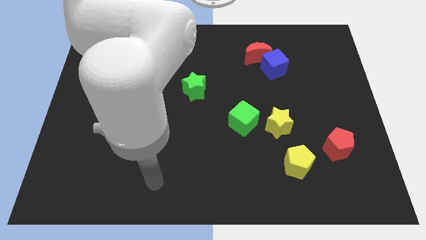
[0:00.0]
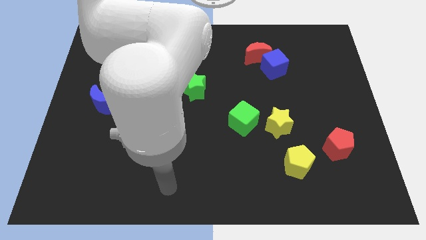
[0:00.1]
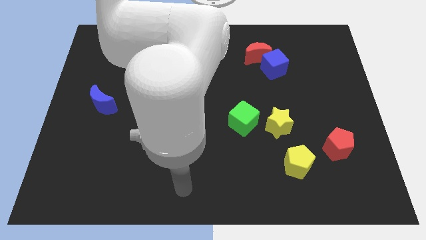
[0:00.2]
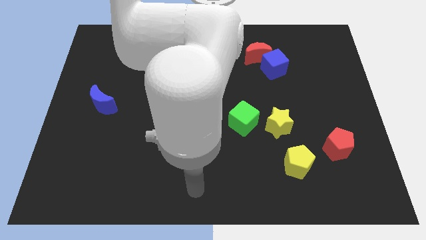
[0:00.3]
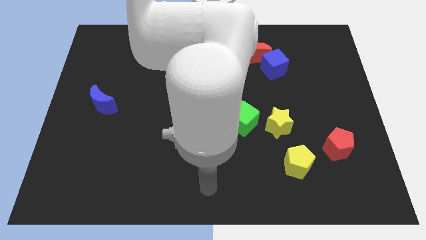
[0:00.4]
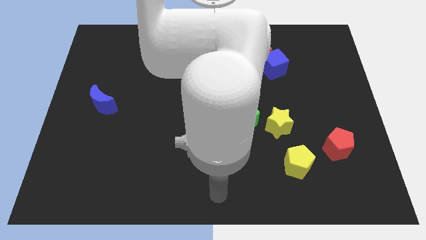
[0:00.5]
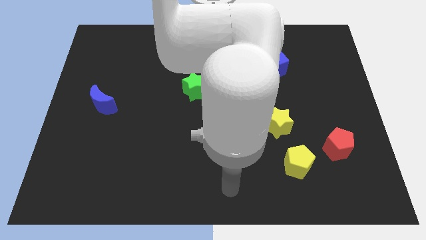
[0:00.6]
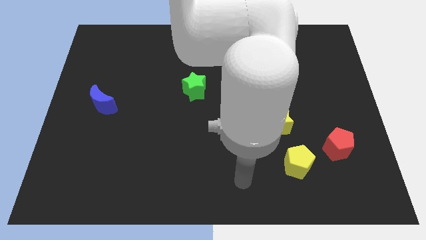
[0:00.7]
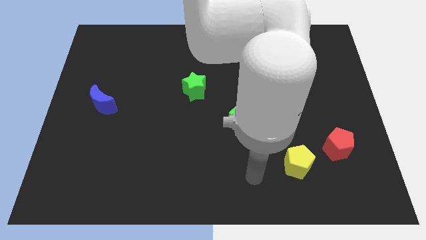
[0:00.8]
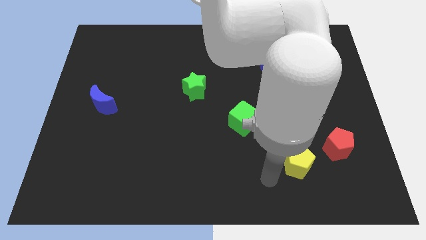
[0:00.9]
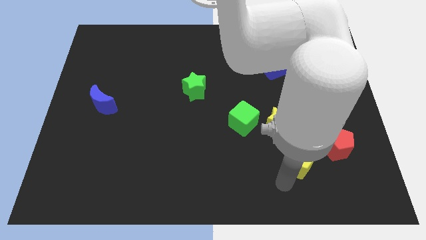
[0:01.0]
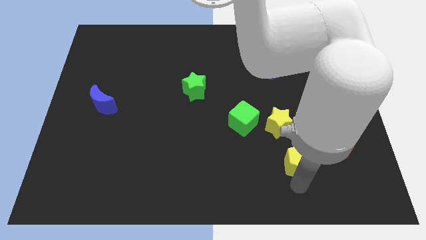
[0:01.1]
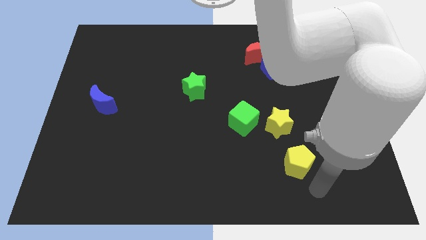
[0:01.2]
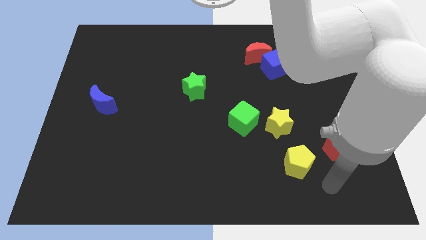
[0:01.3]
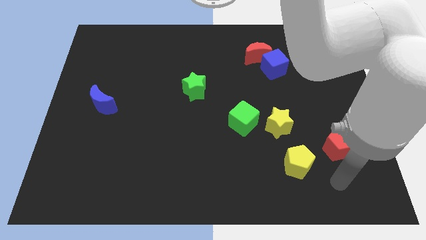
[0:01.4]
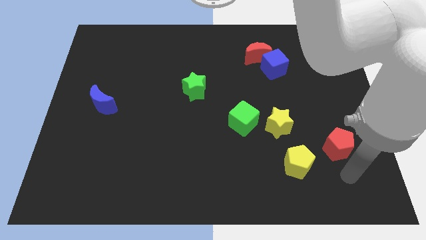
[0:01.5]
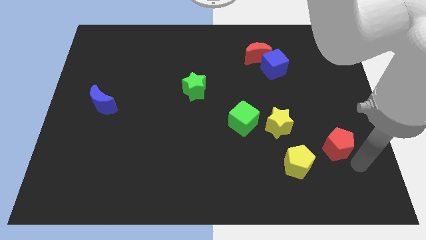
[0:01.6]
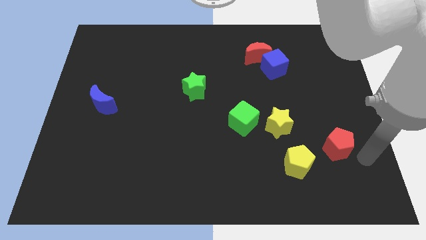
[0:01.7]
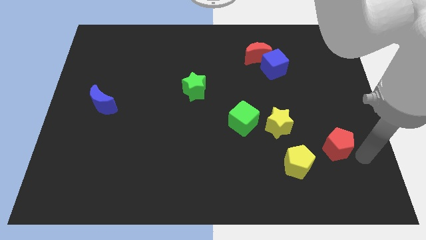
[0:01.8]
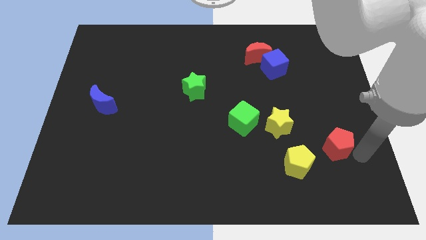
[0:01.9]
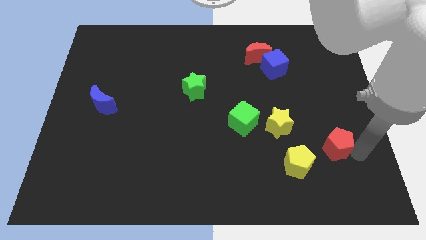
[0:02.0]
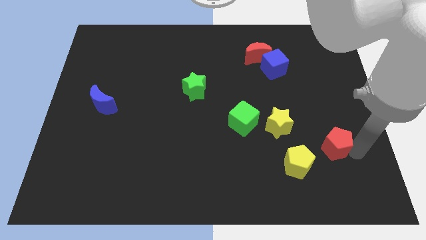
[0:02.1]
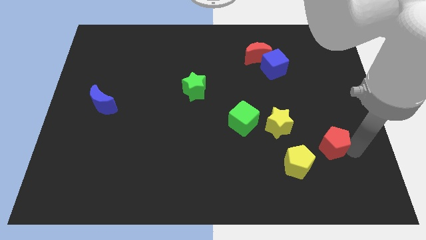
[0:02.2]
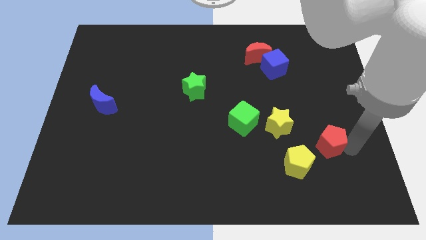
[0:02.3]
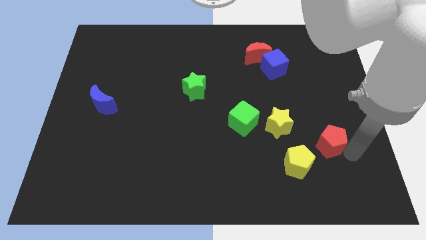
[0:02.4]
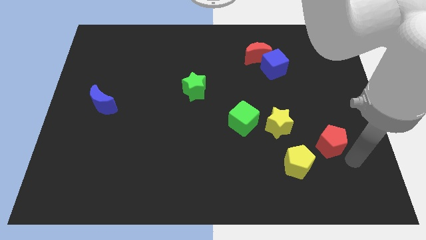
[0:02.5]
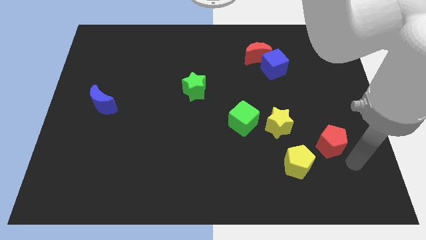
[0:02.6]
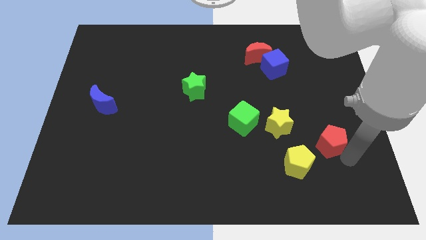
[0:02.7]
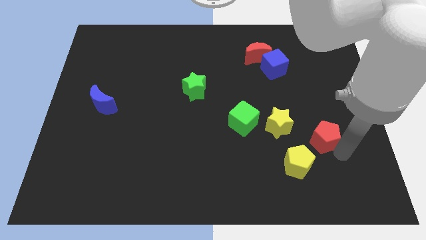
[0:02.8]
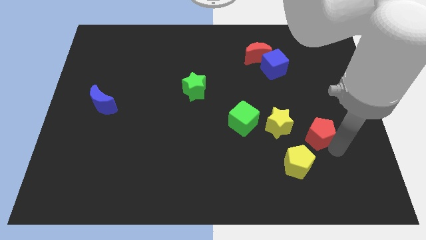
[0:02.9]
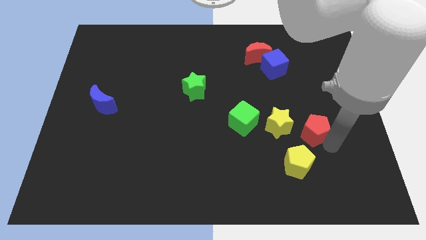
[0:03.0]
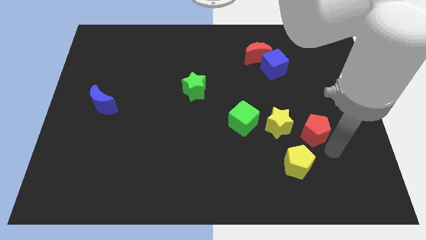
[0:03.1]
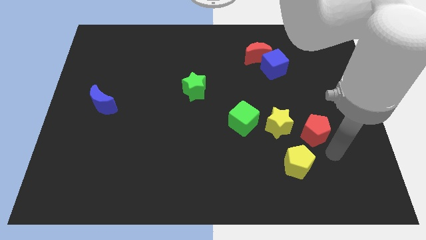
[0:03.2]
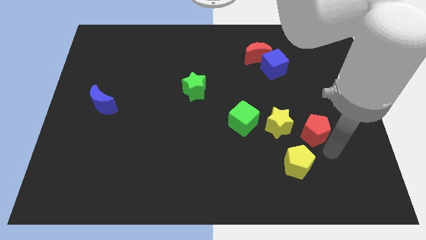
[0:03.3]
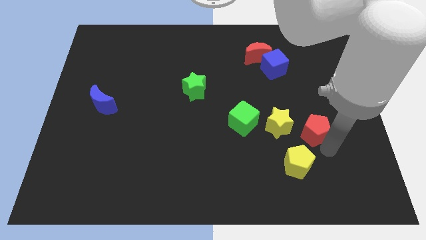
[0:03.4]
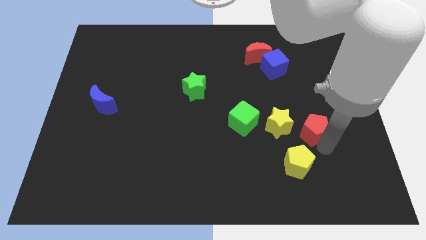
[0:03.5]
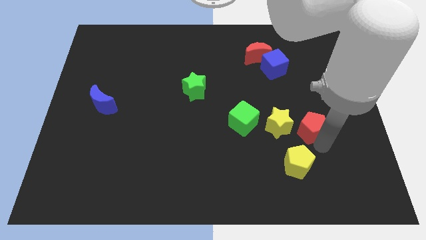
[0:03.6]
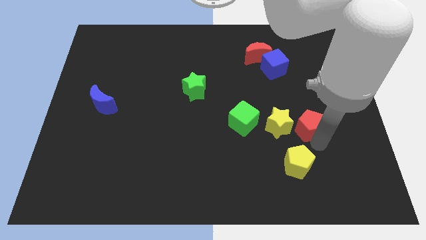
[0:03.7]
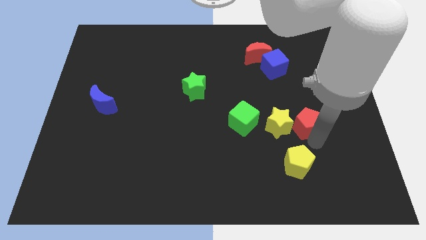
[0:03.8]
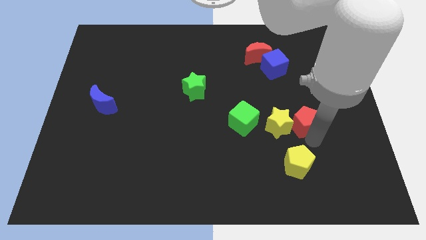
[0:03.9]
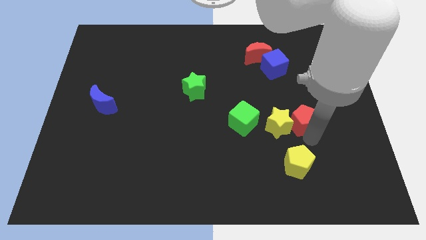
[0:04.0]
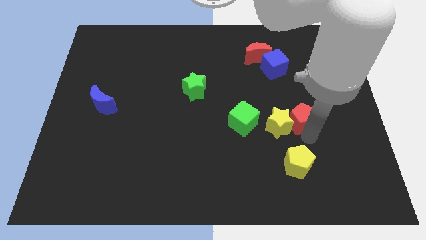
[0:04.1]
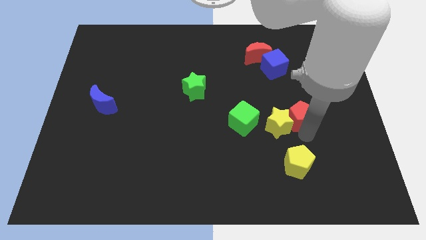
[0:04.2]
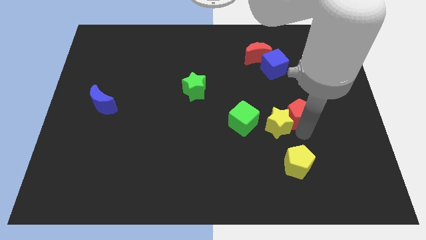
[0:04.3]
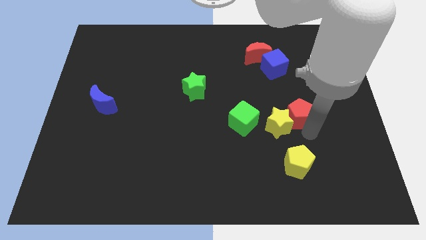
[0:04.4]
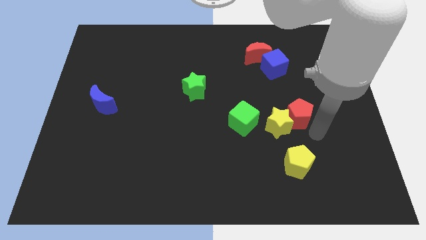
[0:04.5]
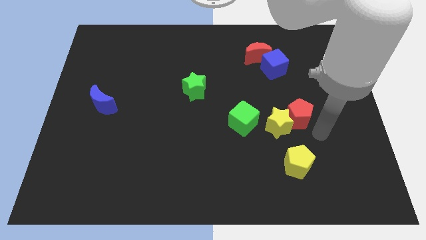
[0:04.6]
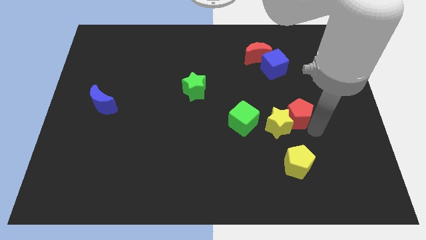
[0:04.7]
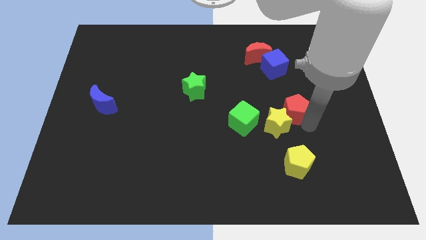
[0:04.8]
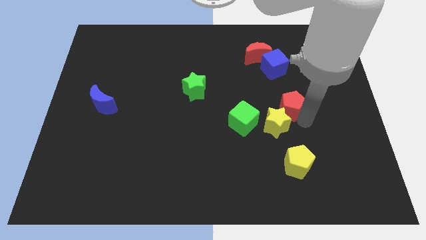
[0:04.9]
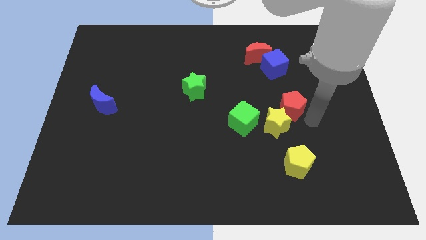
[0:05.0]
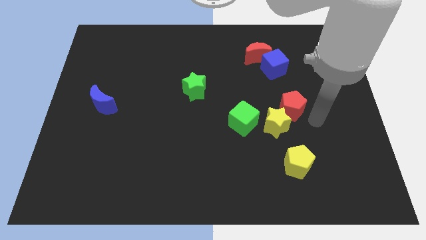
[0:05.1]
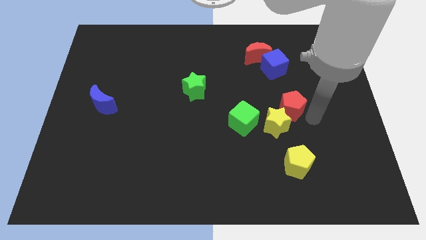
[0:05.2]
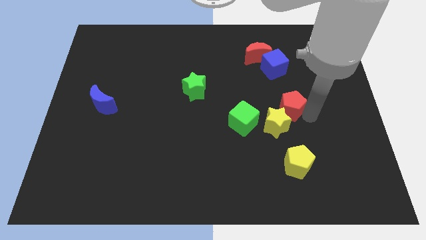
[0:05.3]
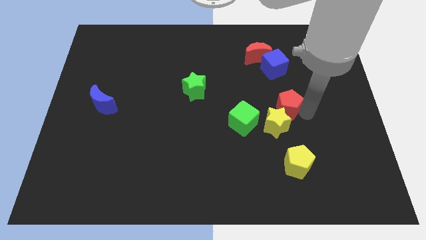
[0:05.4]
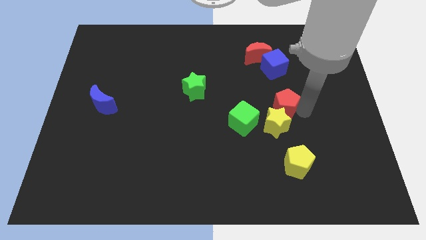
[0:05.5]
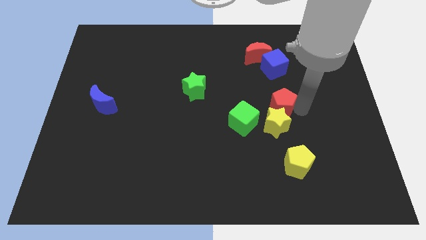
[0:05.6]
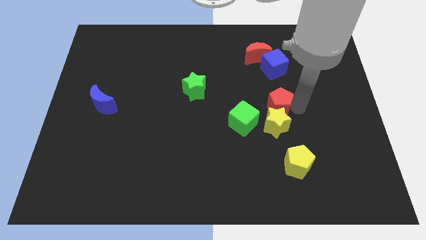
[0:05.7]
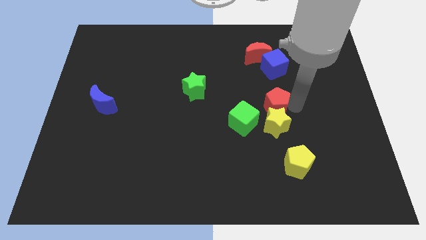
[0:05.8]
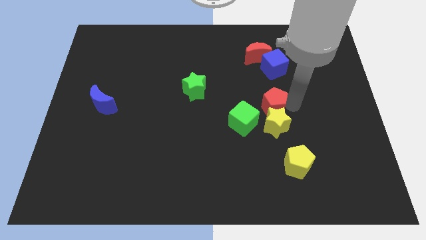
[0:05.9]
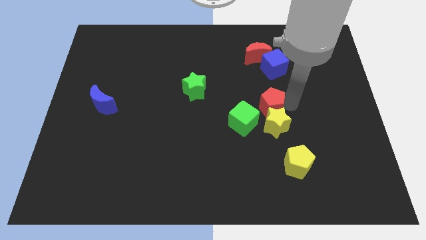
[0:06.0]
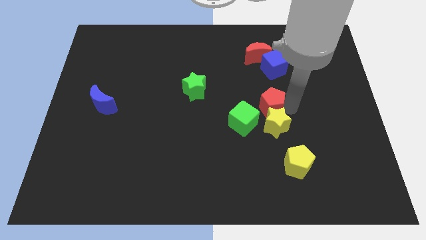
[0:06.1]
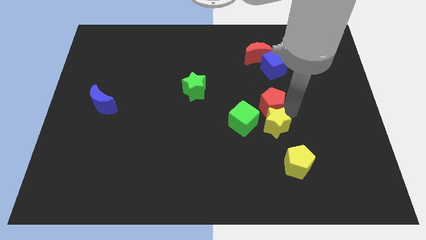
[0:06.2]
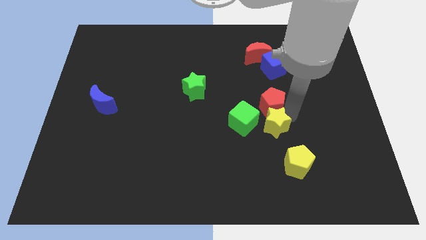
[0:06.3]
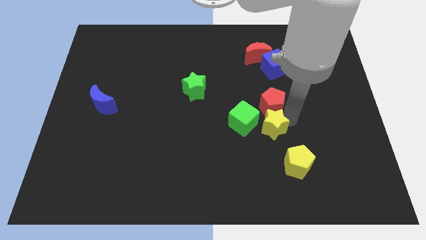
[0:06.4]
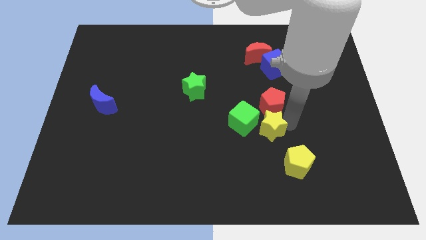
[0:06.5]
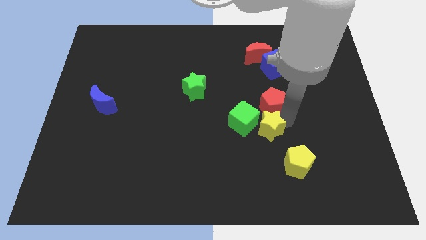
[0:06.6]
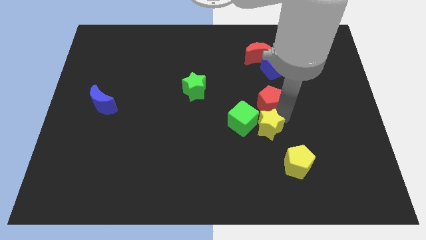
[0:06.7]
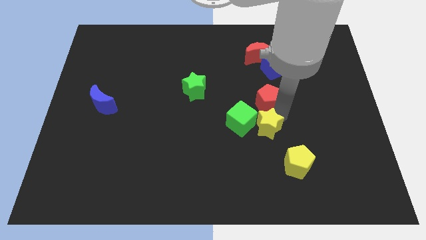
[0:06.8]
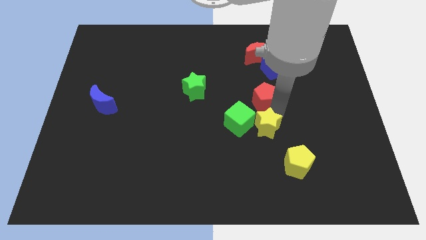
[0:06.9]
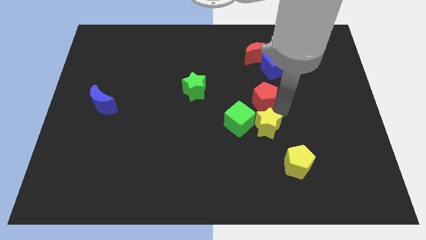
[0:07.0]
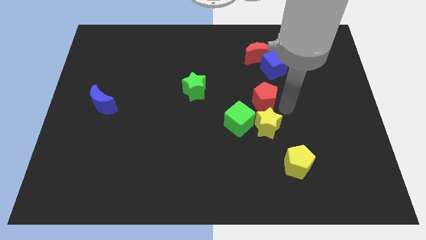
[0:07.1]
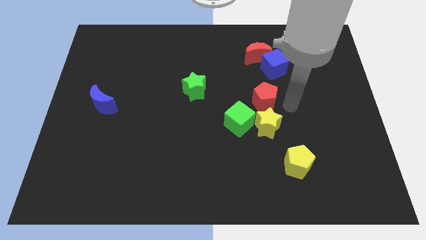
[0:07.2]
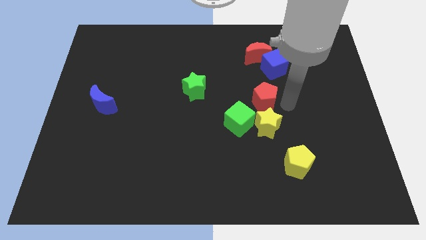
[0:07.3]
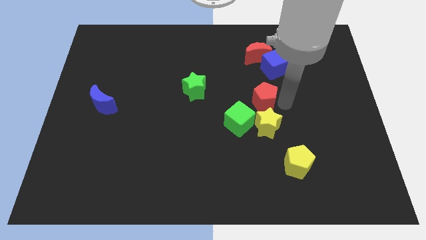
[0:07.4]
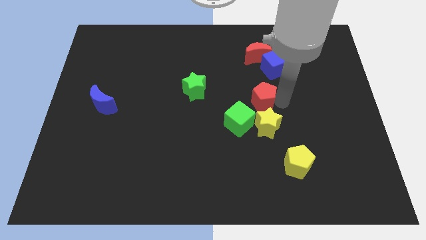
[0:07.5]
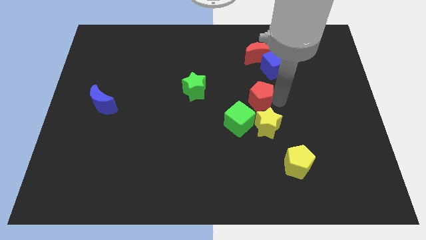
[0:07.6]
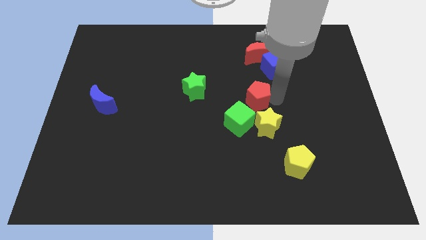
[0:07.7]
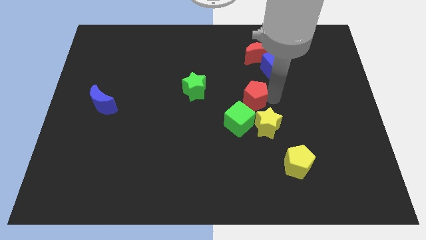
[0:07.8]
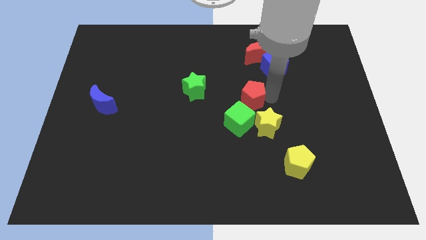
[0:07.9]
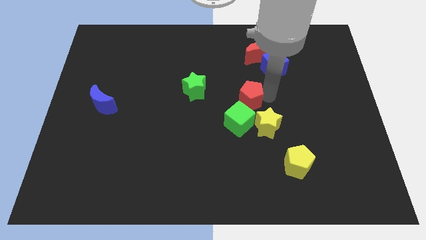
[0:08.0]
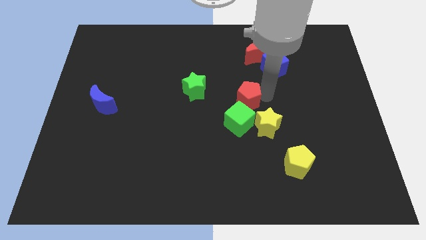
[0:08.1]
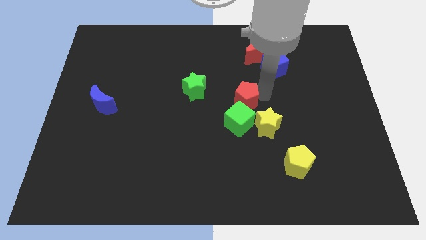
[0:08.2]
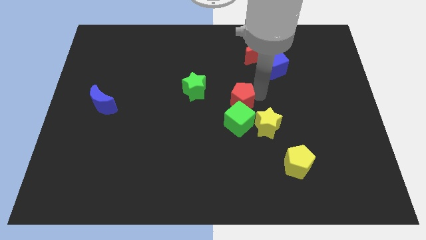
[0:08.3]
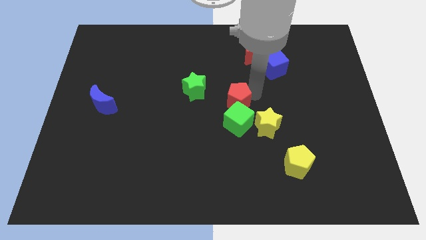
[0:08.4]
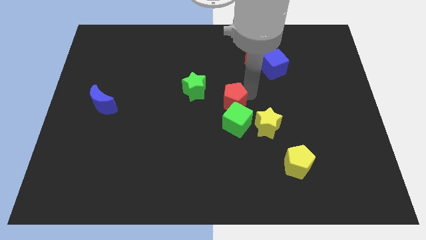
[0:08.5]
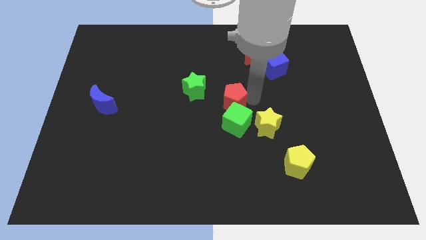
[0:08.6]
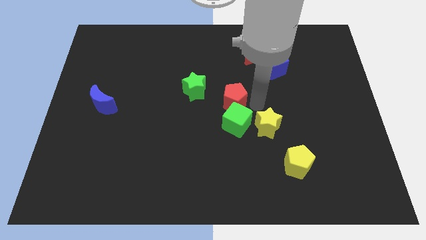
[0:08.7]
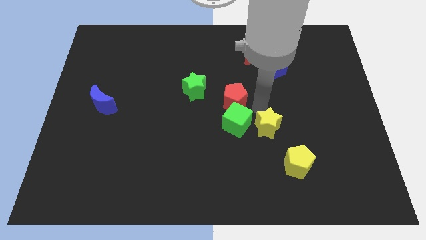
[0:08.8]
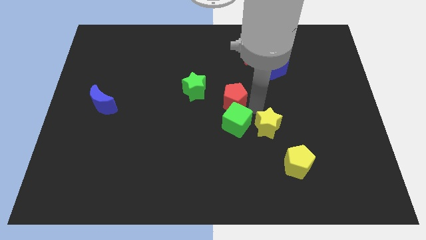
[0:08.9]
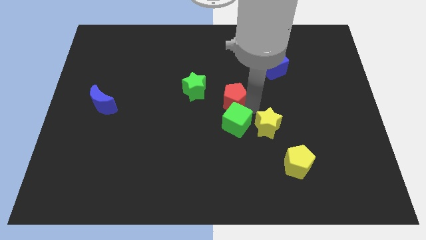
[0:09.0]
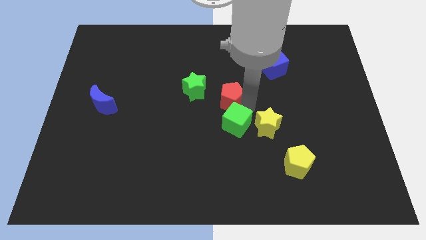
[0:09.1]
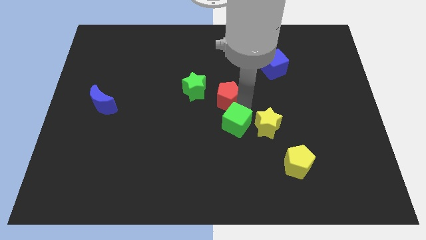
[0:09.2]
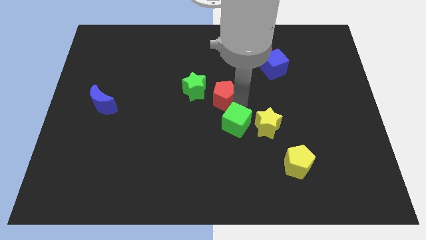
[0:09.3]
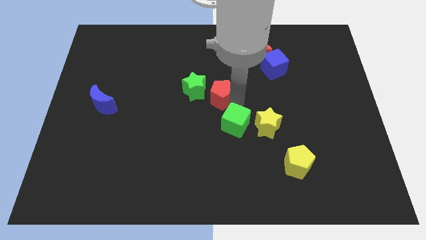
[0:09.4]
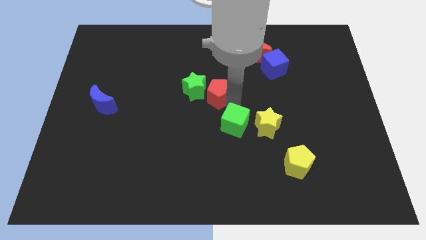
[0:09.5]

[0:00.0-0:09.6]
push the red pentagon next to the green star
